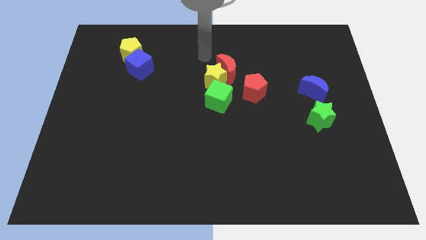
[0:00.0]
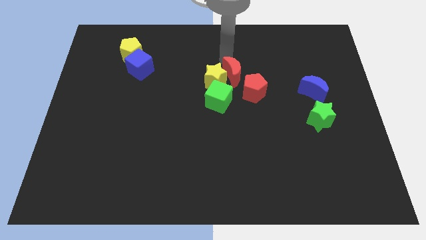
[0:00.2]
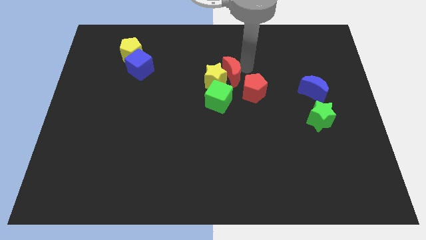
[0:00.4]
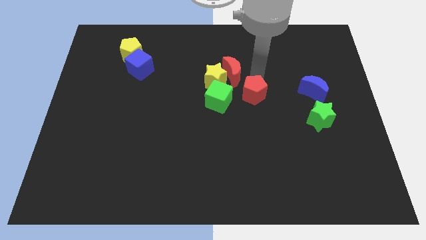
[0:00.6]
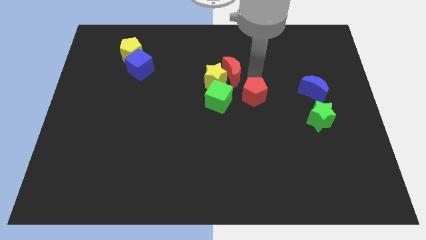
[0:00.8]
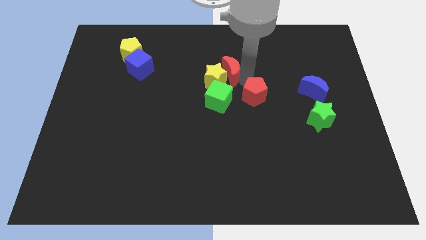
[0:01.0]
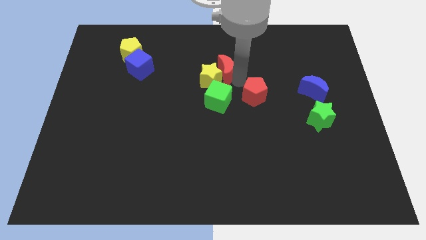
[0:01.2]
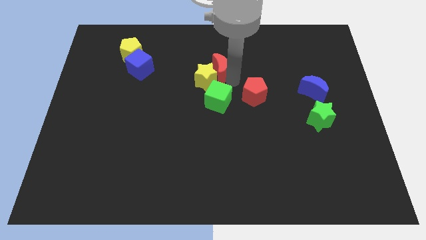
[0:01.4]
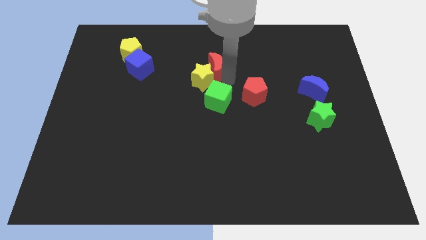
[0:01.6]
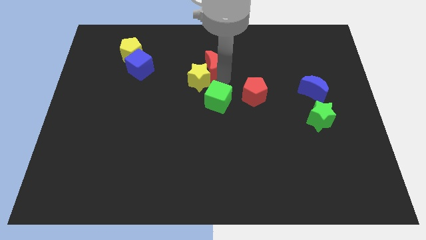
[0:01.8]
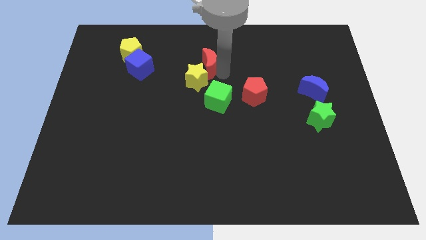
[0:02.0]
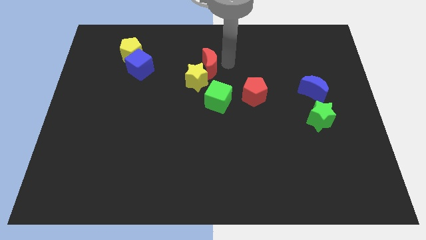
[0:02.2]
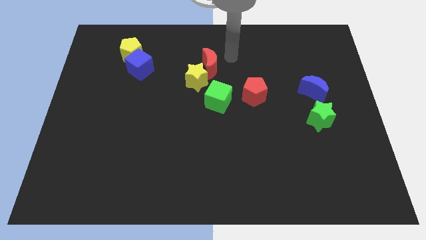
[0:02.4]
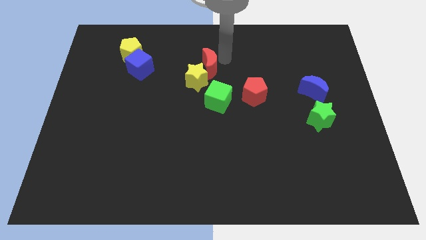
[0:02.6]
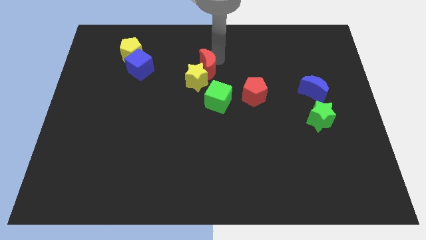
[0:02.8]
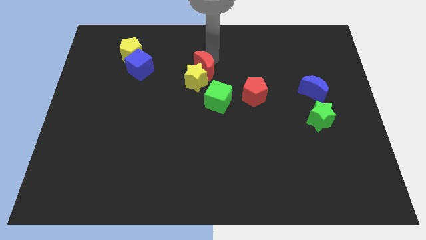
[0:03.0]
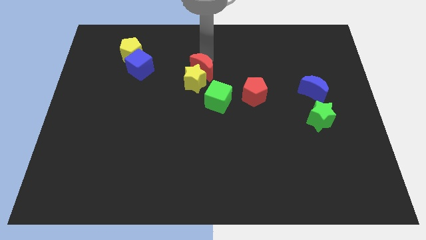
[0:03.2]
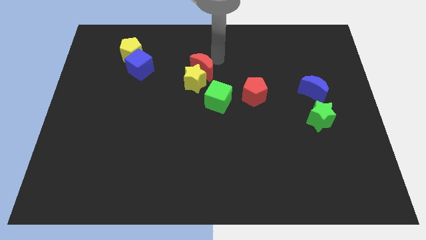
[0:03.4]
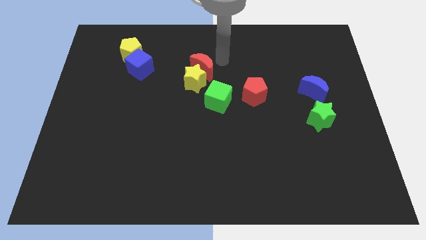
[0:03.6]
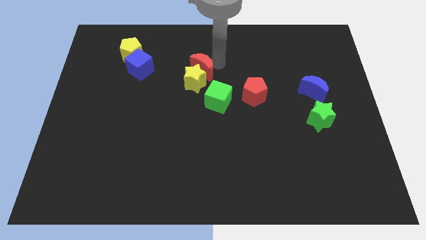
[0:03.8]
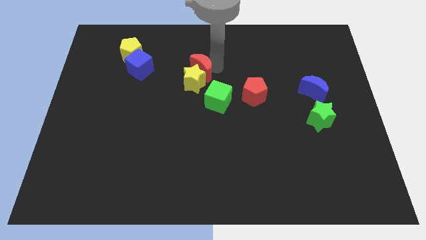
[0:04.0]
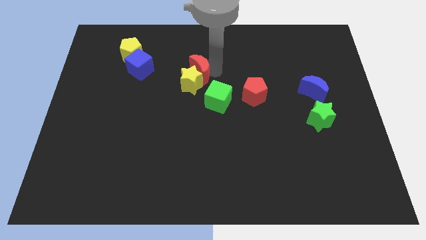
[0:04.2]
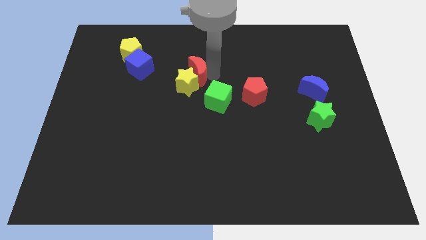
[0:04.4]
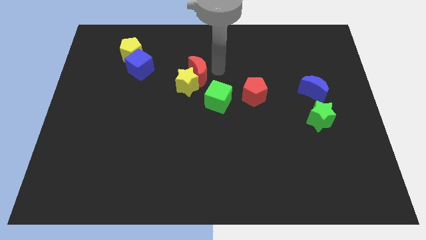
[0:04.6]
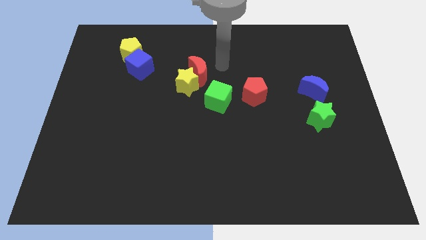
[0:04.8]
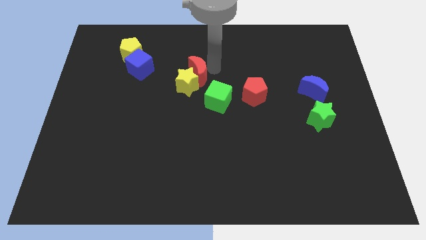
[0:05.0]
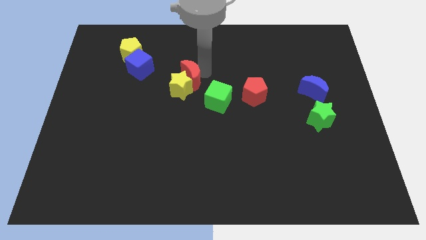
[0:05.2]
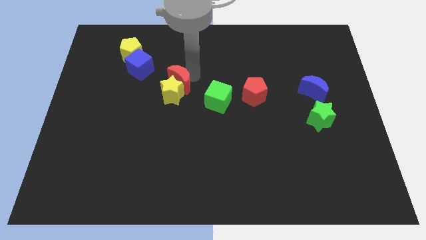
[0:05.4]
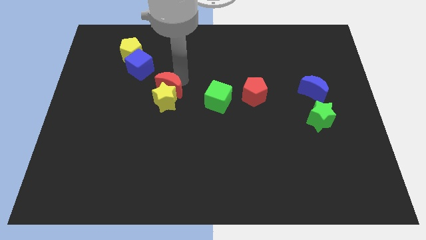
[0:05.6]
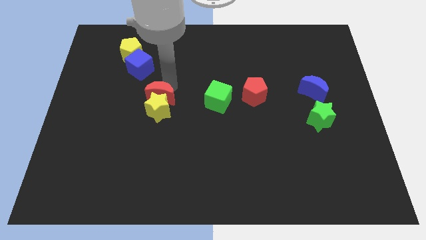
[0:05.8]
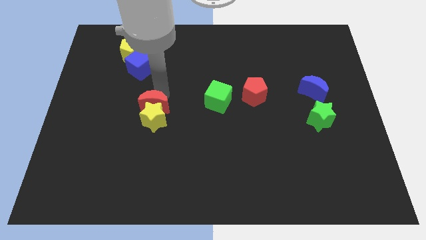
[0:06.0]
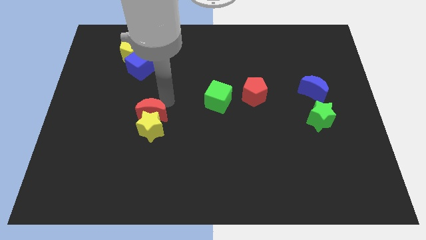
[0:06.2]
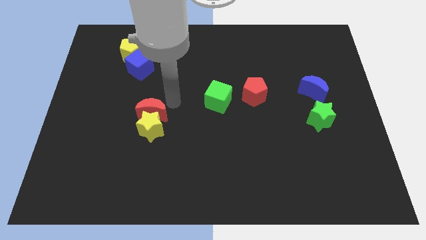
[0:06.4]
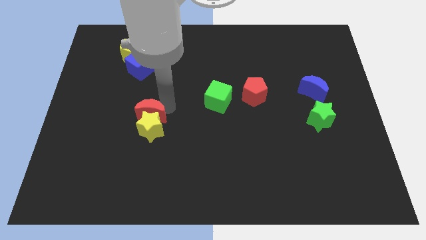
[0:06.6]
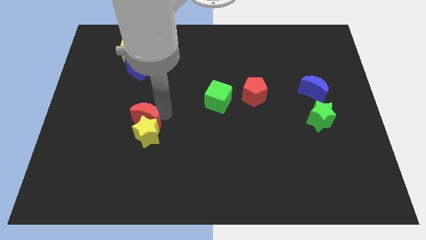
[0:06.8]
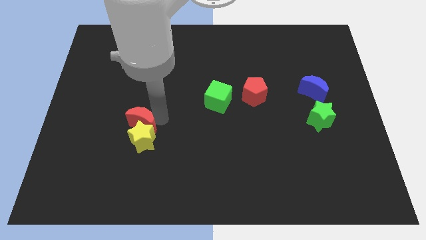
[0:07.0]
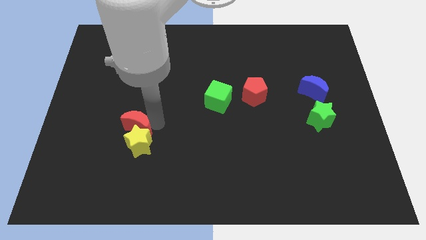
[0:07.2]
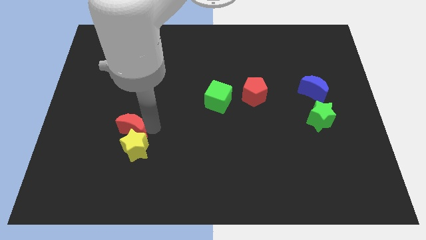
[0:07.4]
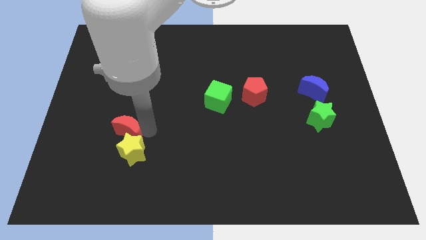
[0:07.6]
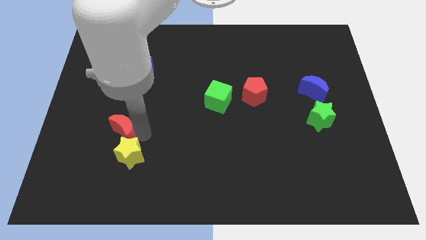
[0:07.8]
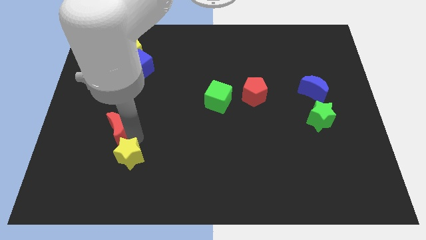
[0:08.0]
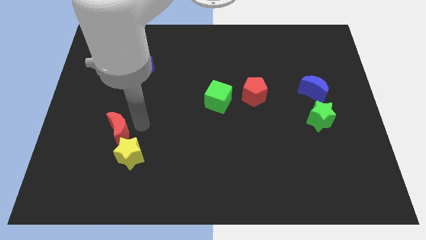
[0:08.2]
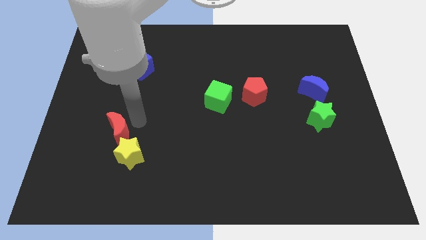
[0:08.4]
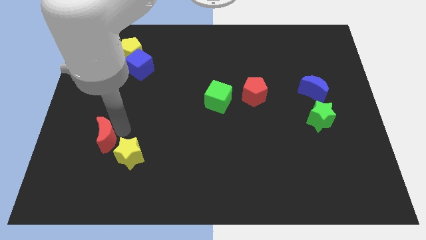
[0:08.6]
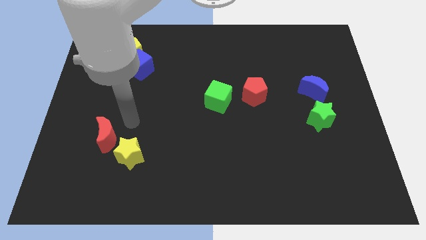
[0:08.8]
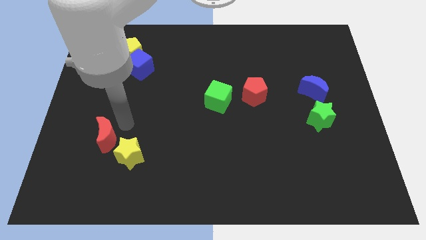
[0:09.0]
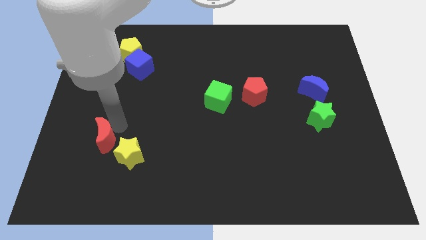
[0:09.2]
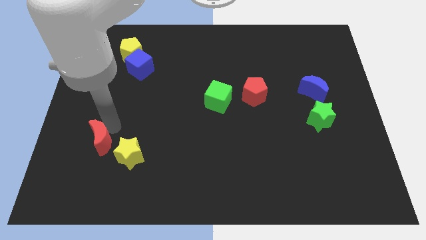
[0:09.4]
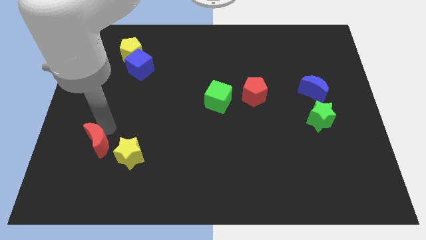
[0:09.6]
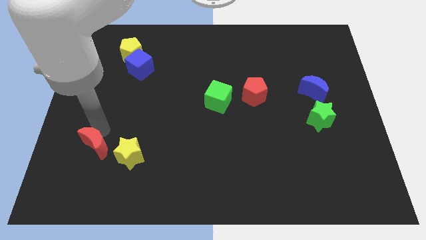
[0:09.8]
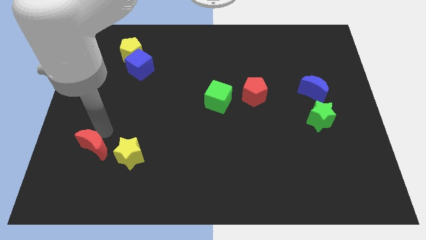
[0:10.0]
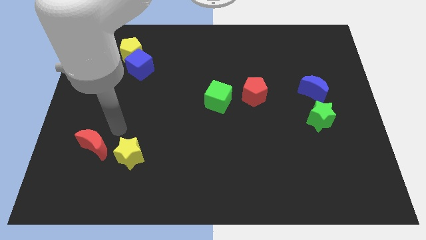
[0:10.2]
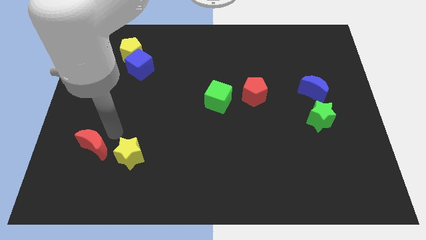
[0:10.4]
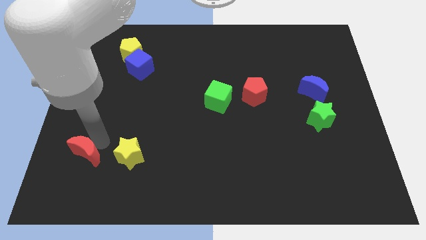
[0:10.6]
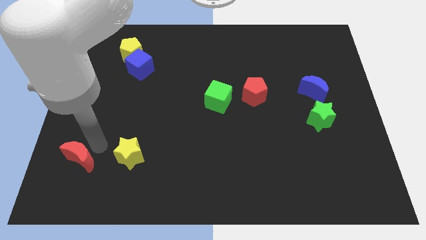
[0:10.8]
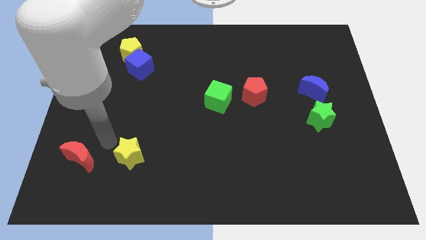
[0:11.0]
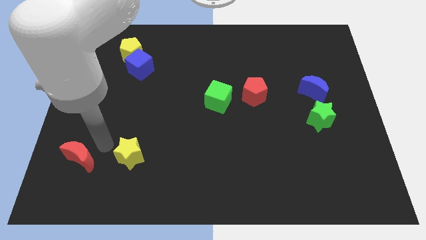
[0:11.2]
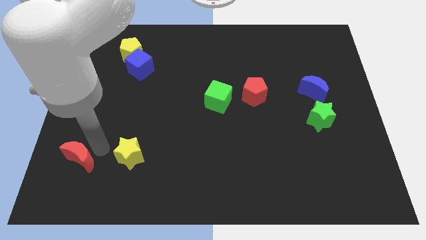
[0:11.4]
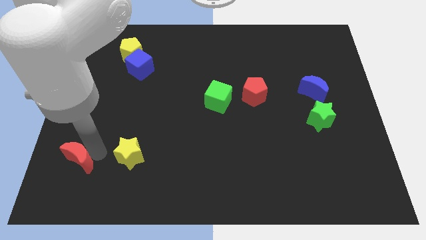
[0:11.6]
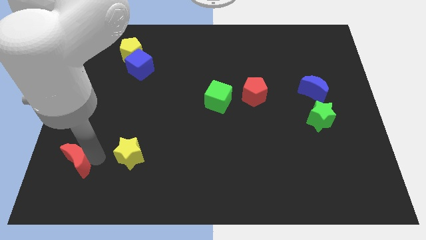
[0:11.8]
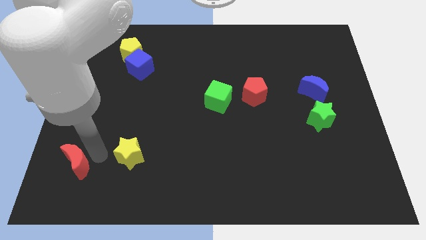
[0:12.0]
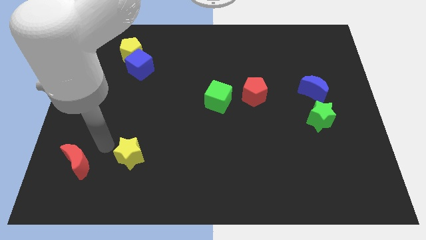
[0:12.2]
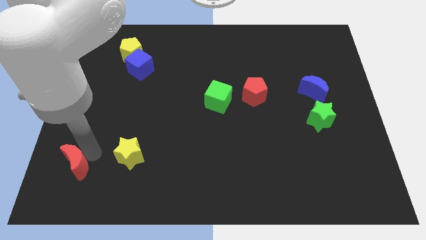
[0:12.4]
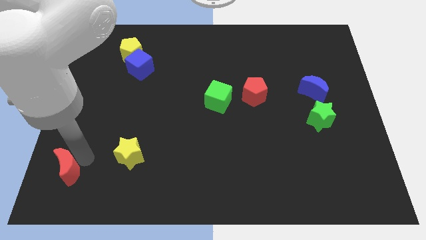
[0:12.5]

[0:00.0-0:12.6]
move the red moon to the bottom left
